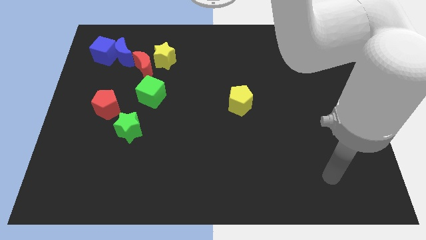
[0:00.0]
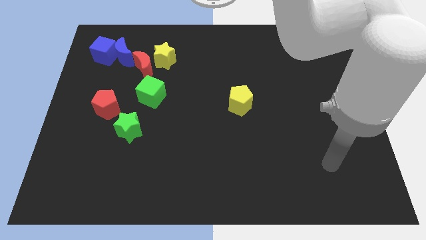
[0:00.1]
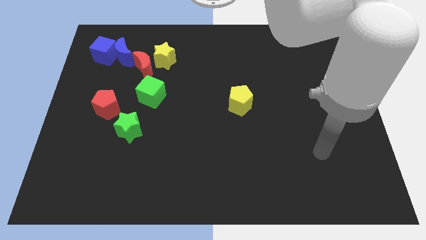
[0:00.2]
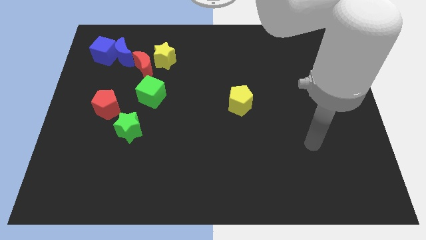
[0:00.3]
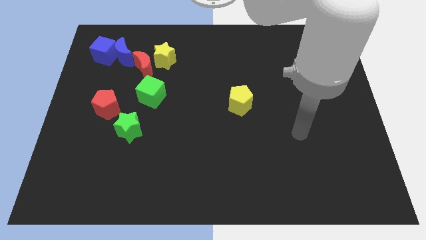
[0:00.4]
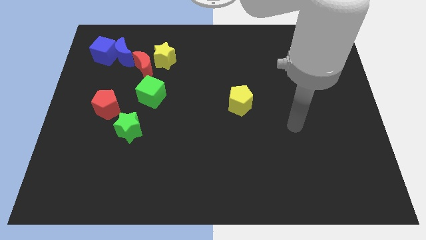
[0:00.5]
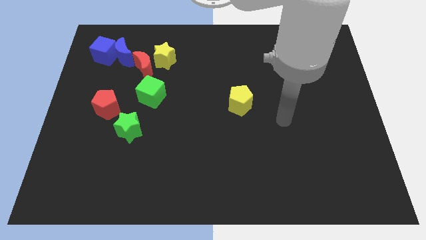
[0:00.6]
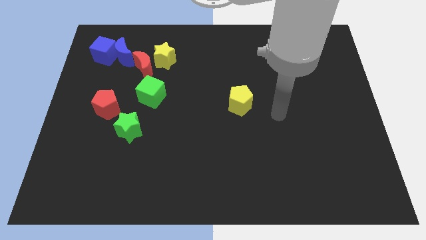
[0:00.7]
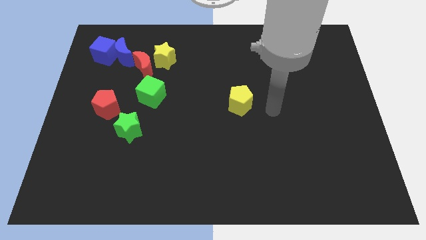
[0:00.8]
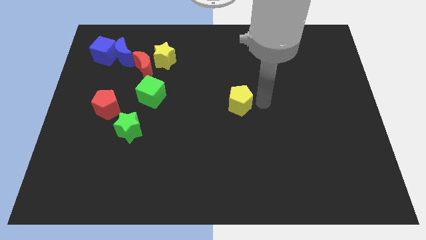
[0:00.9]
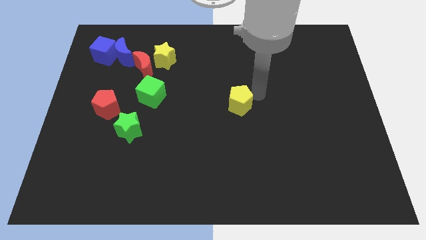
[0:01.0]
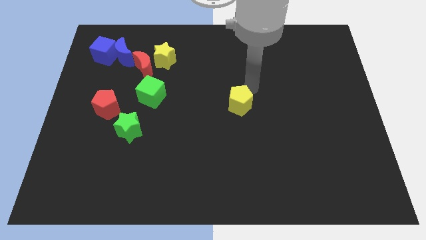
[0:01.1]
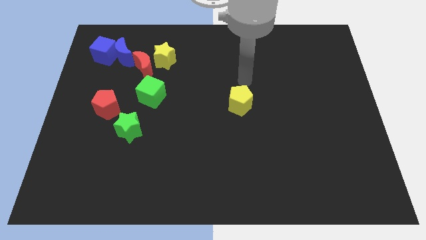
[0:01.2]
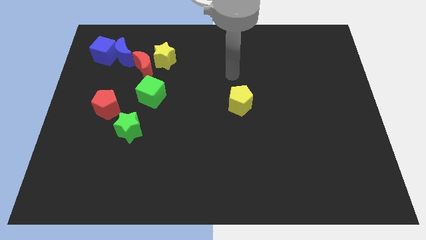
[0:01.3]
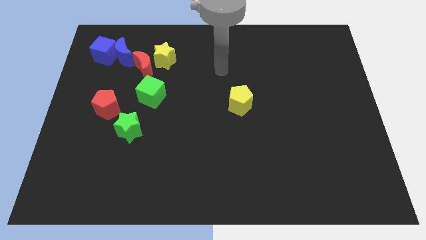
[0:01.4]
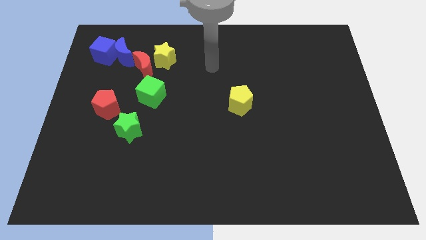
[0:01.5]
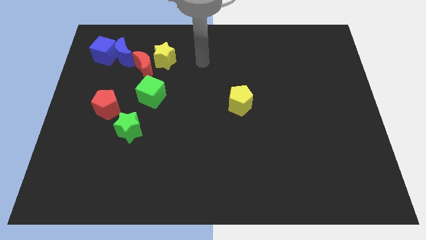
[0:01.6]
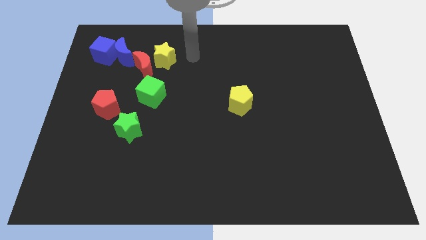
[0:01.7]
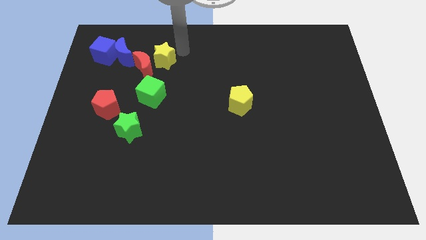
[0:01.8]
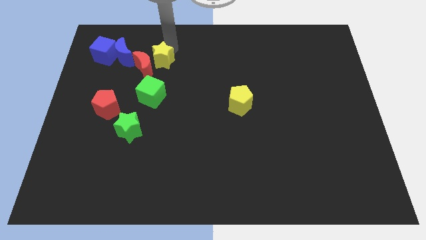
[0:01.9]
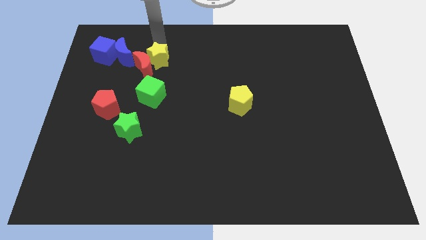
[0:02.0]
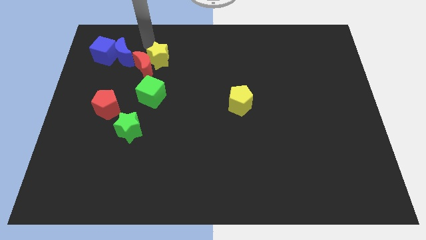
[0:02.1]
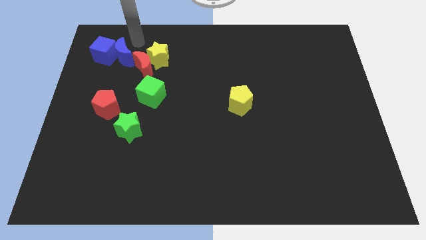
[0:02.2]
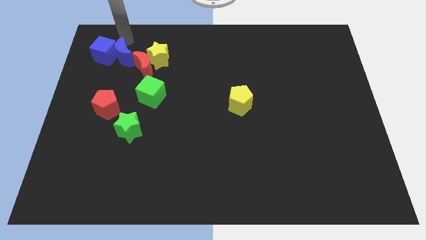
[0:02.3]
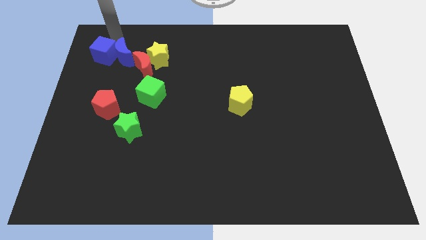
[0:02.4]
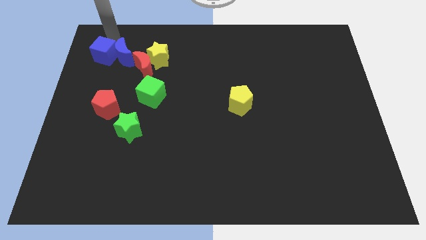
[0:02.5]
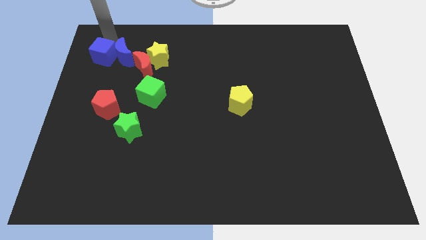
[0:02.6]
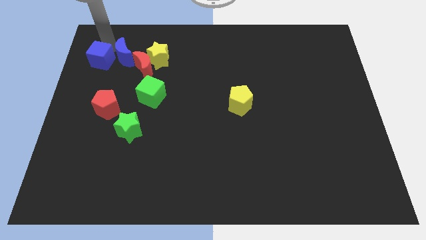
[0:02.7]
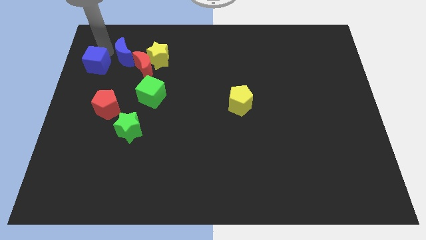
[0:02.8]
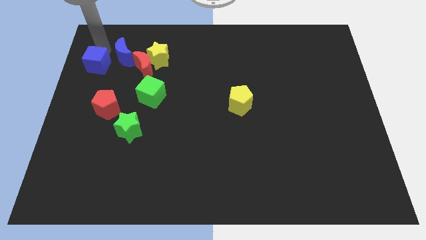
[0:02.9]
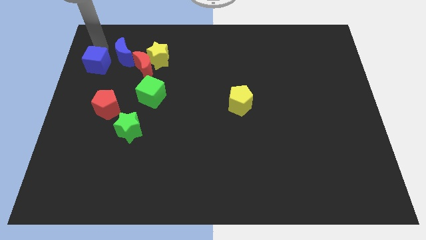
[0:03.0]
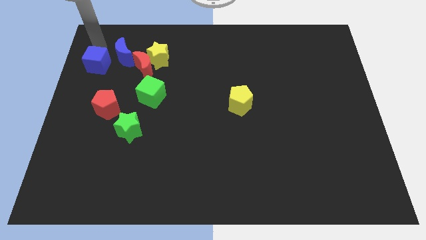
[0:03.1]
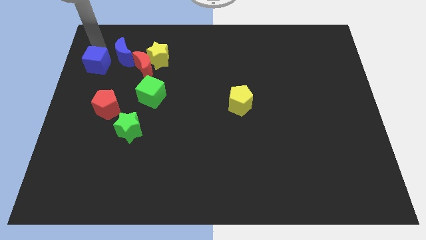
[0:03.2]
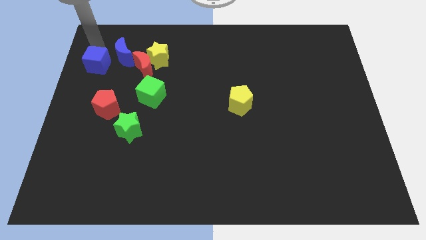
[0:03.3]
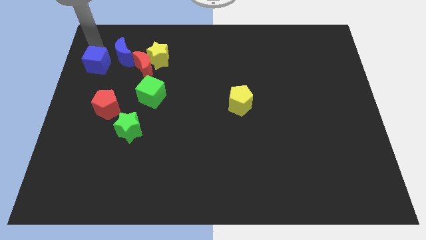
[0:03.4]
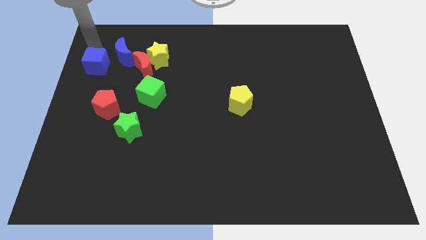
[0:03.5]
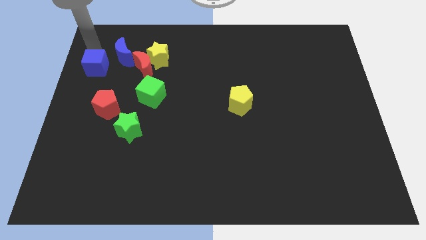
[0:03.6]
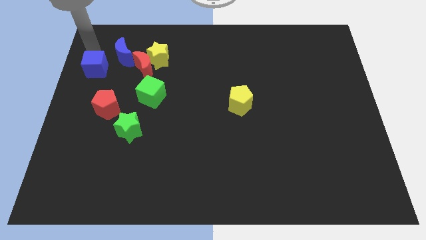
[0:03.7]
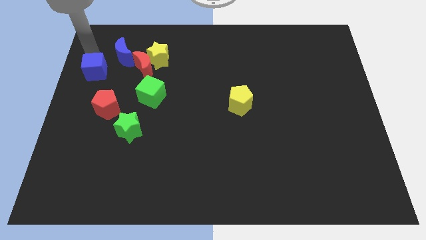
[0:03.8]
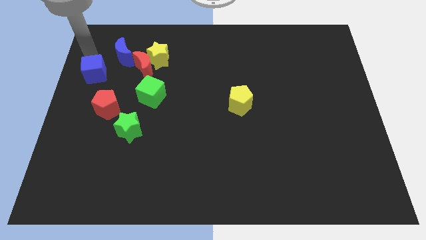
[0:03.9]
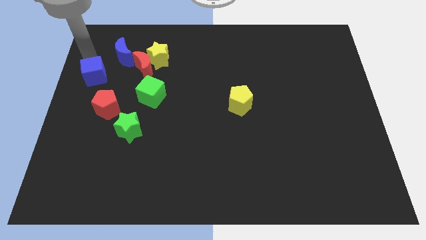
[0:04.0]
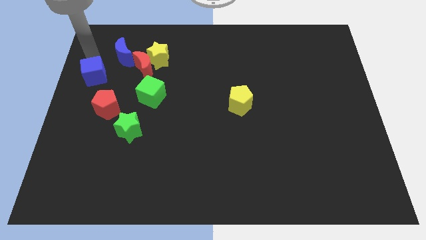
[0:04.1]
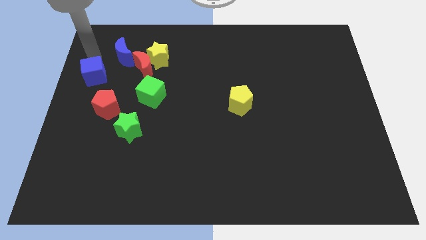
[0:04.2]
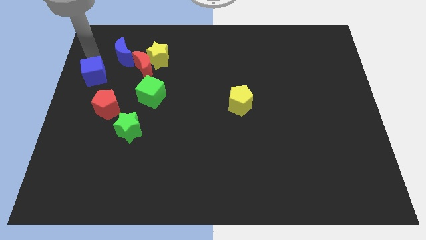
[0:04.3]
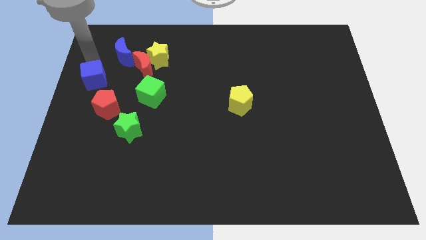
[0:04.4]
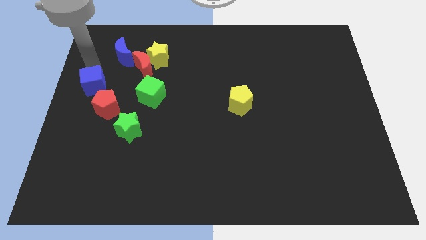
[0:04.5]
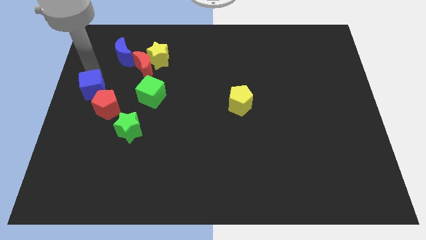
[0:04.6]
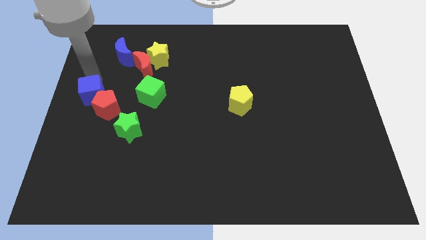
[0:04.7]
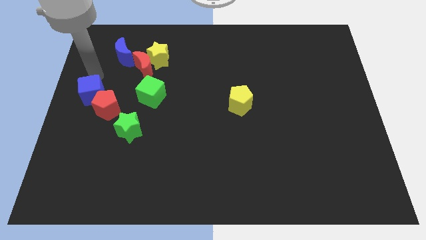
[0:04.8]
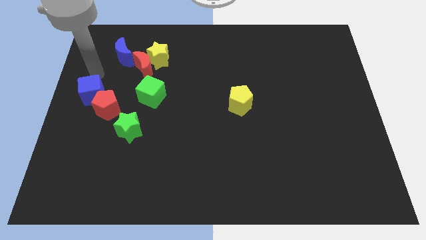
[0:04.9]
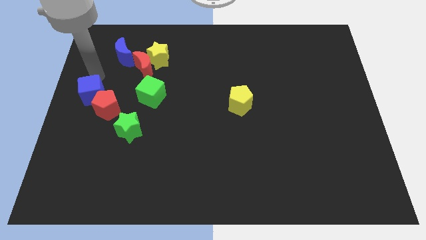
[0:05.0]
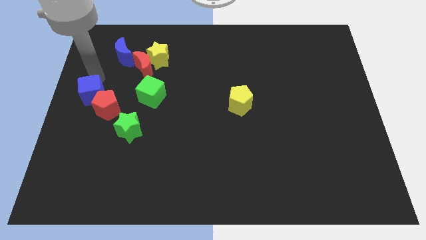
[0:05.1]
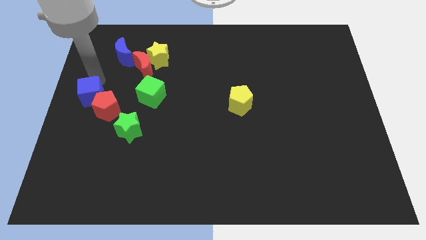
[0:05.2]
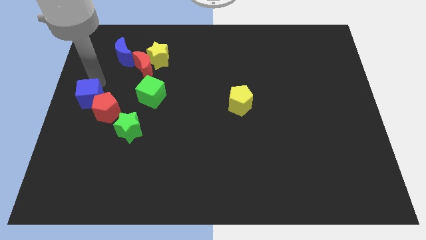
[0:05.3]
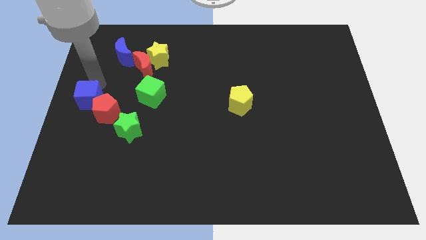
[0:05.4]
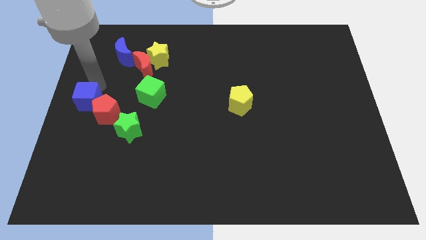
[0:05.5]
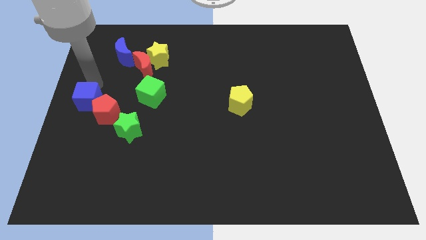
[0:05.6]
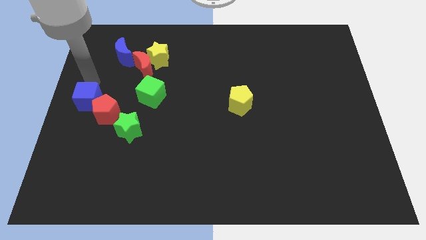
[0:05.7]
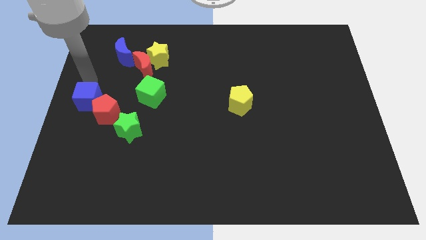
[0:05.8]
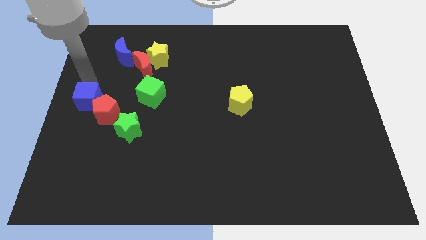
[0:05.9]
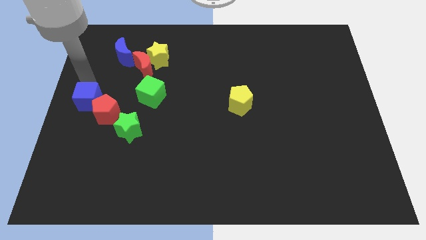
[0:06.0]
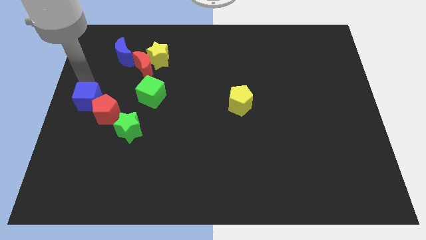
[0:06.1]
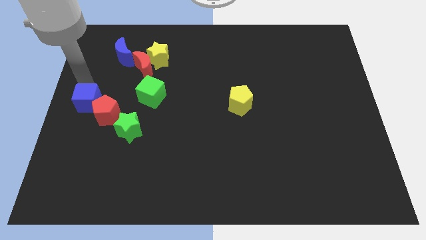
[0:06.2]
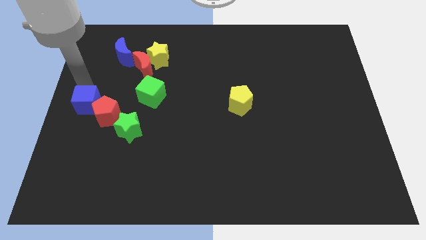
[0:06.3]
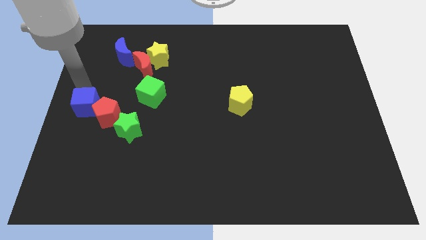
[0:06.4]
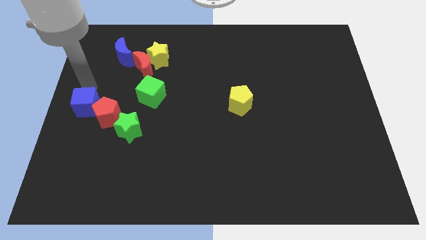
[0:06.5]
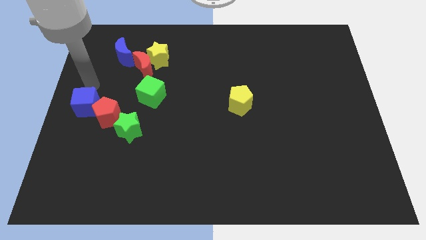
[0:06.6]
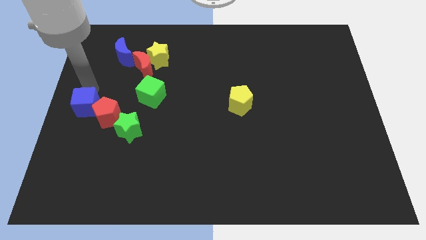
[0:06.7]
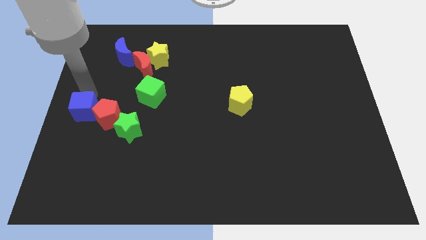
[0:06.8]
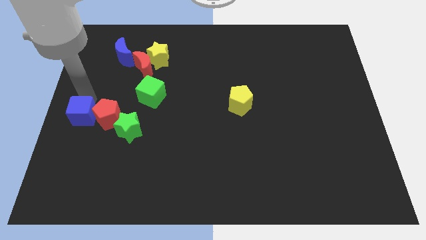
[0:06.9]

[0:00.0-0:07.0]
slide the blue cube down

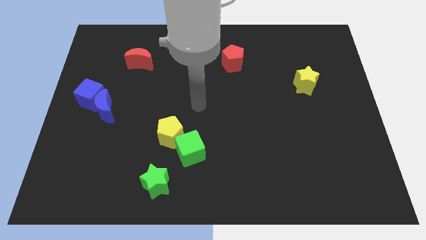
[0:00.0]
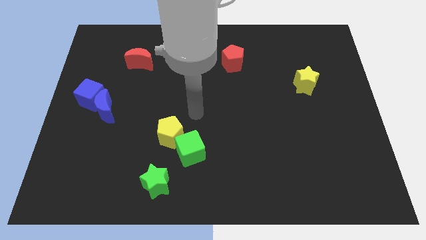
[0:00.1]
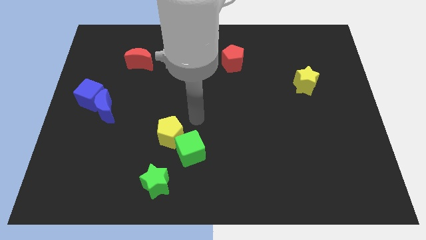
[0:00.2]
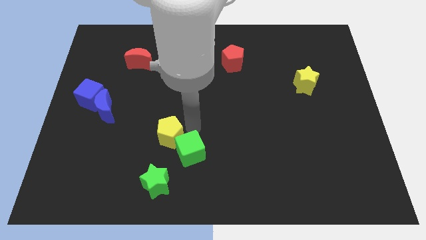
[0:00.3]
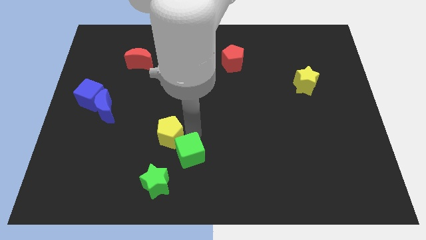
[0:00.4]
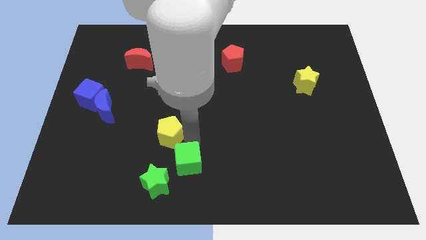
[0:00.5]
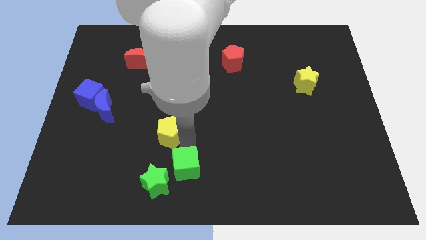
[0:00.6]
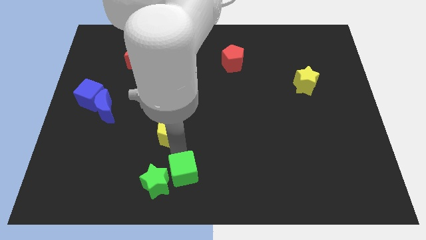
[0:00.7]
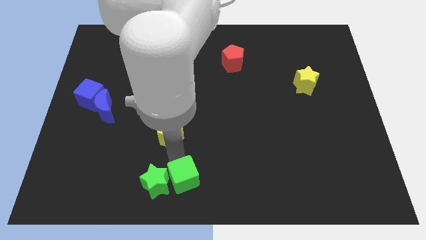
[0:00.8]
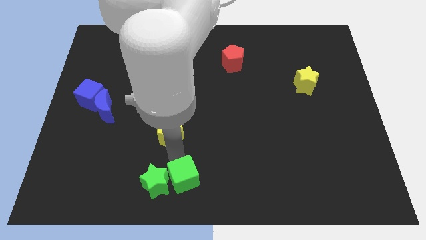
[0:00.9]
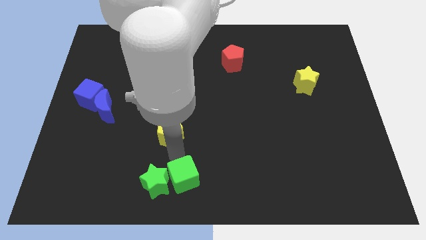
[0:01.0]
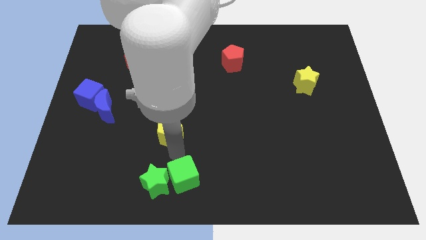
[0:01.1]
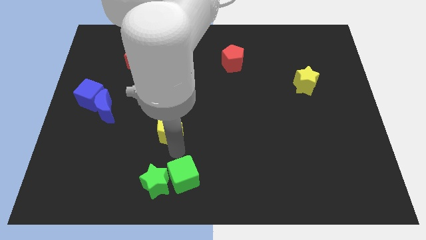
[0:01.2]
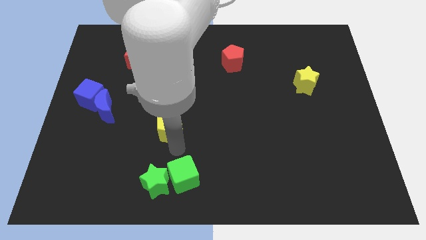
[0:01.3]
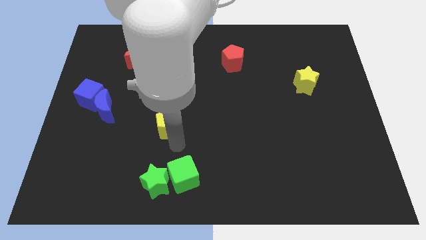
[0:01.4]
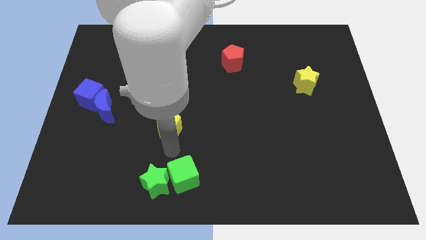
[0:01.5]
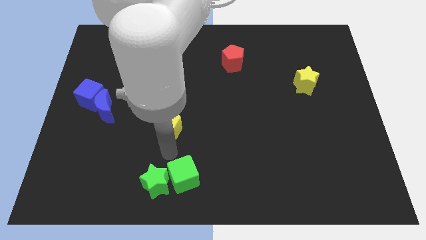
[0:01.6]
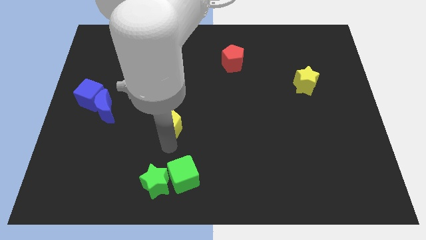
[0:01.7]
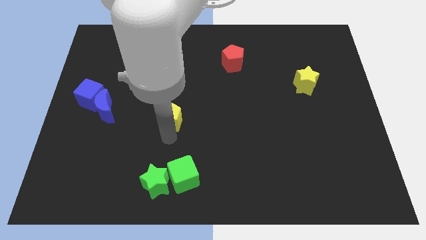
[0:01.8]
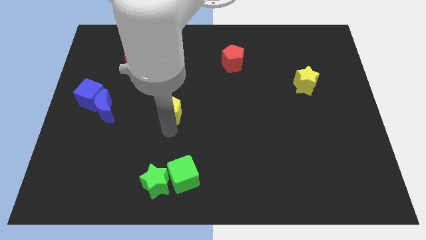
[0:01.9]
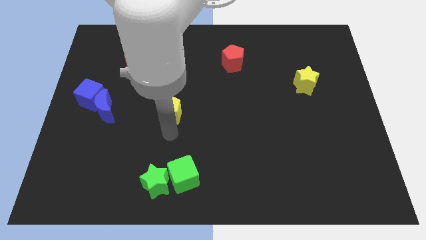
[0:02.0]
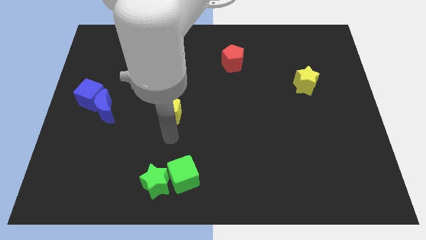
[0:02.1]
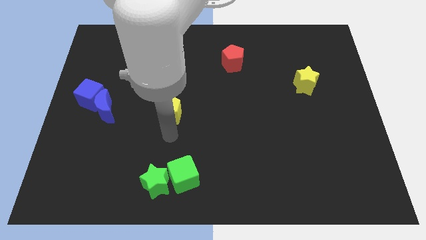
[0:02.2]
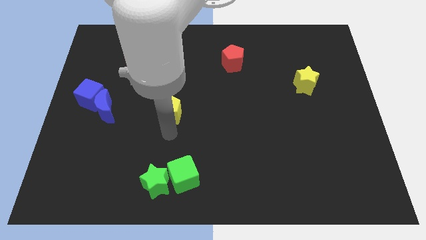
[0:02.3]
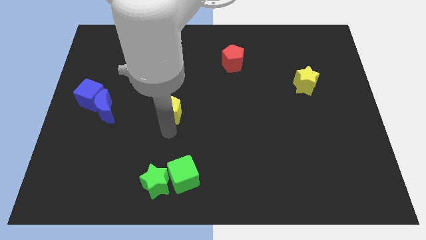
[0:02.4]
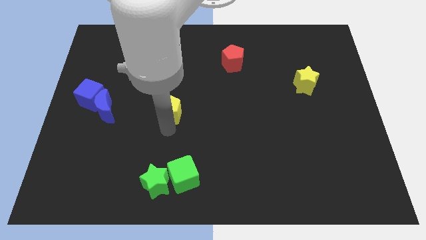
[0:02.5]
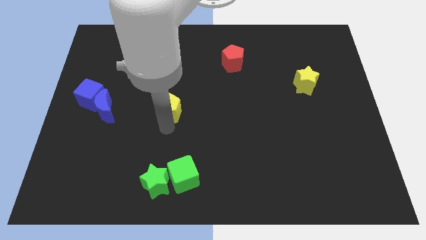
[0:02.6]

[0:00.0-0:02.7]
slide the yellow pentagon upwards a bit
